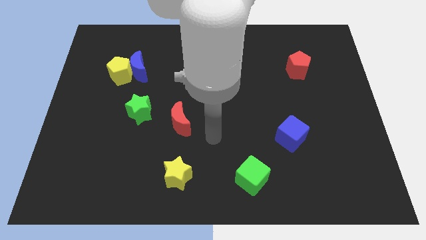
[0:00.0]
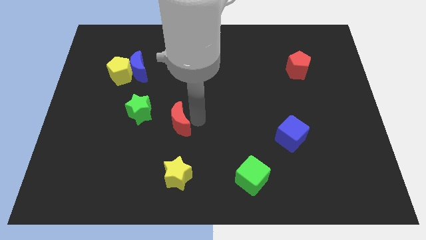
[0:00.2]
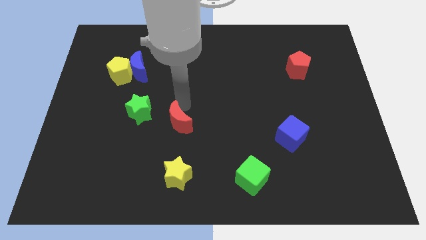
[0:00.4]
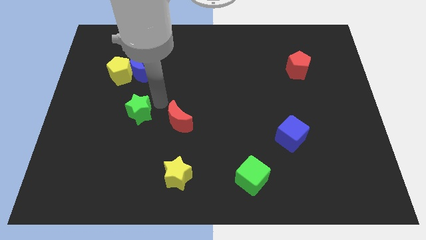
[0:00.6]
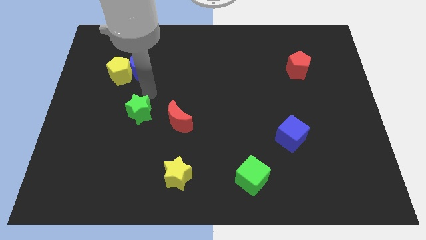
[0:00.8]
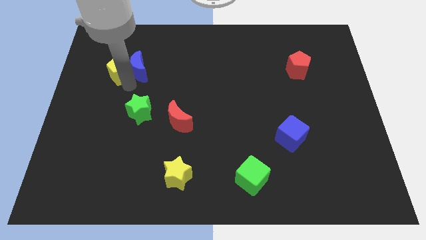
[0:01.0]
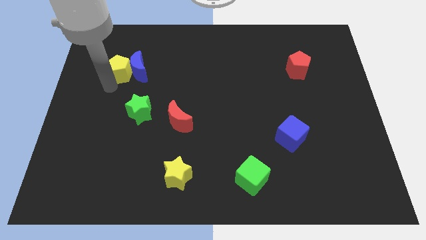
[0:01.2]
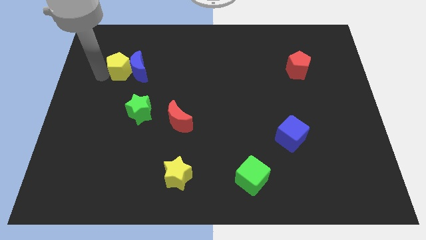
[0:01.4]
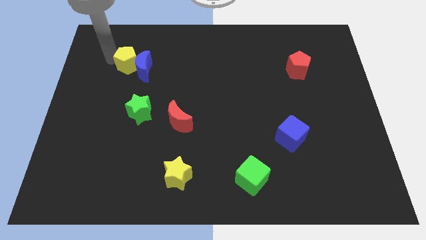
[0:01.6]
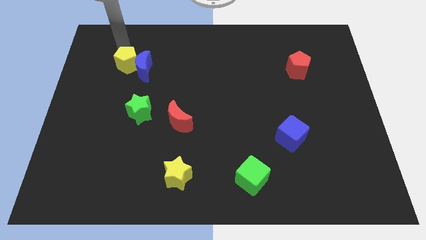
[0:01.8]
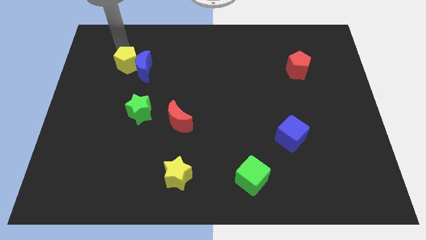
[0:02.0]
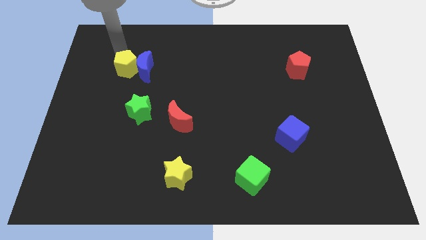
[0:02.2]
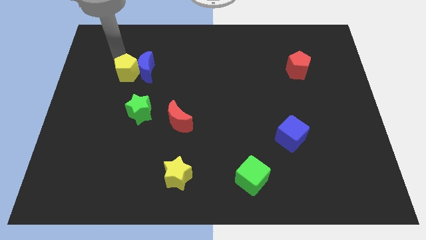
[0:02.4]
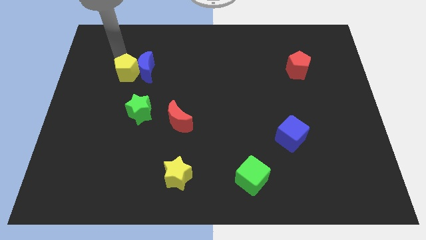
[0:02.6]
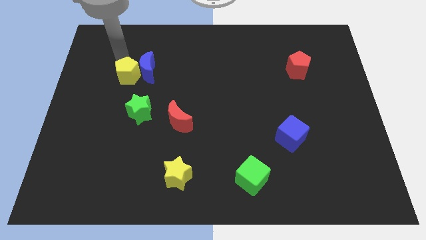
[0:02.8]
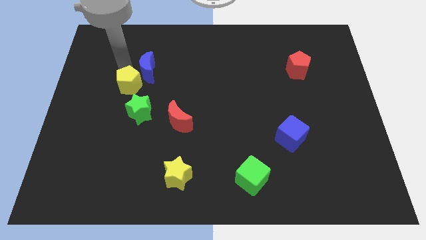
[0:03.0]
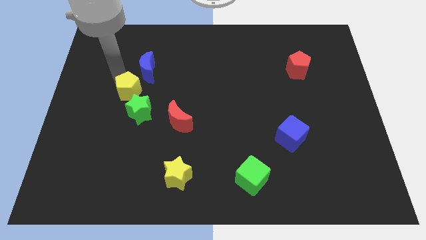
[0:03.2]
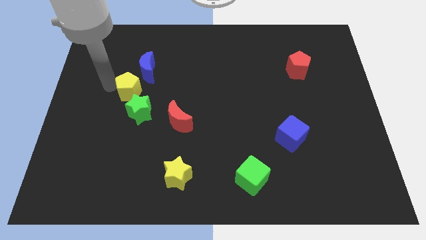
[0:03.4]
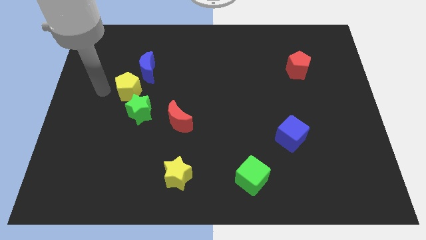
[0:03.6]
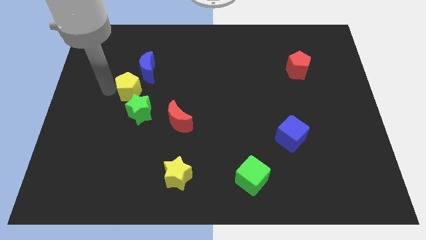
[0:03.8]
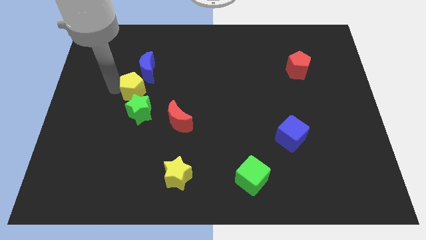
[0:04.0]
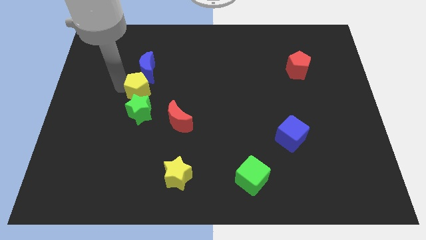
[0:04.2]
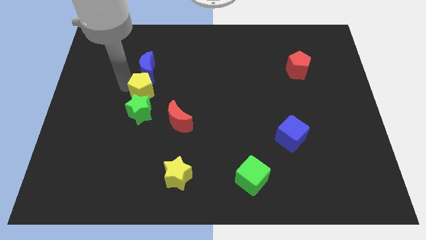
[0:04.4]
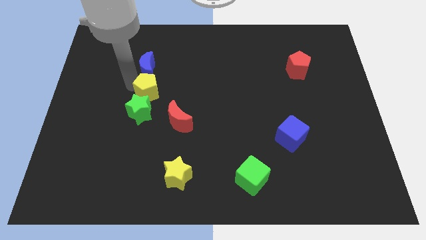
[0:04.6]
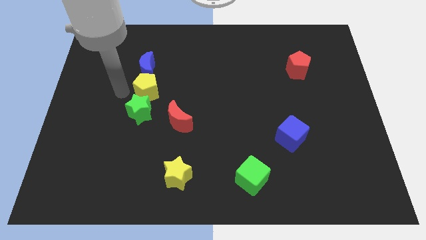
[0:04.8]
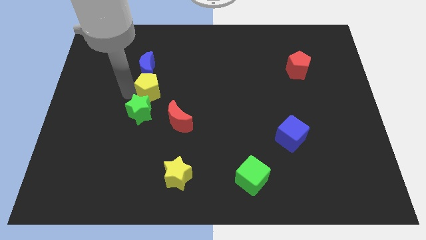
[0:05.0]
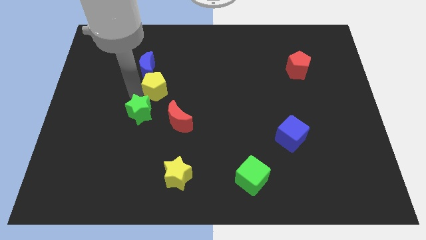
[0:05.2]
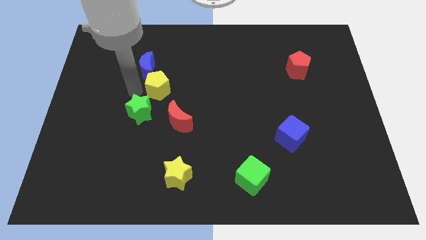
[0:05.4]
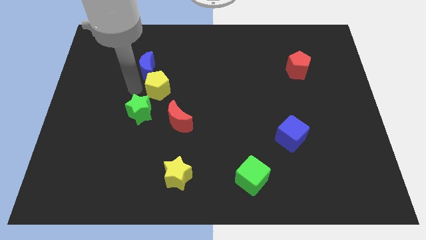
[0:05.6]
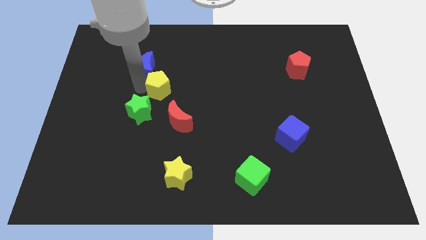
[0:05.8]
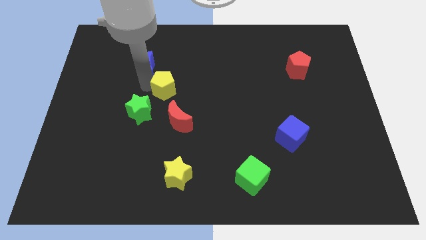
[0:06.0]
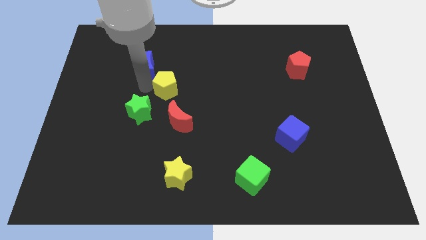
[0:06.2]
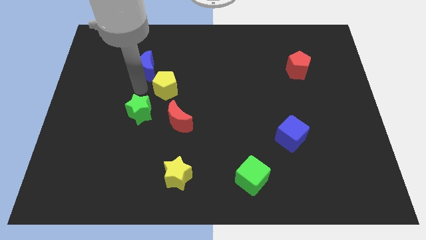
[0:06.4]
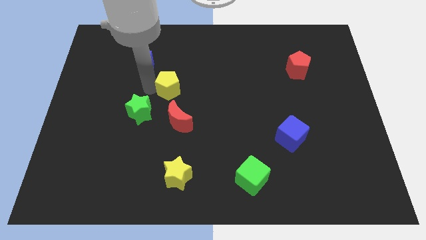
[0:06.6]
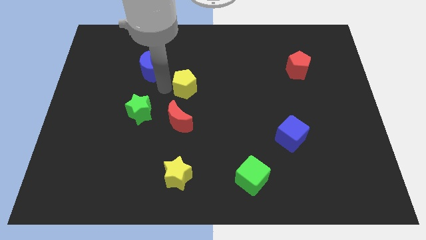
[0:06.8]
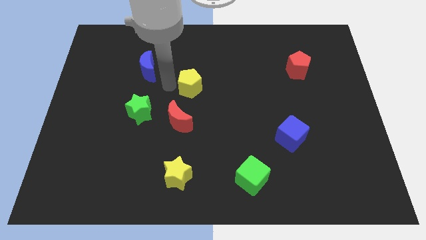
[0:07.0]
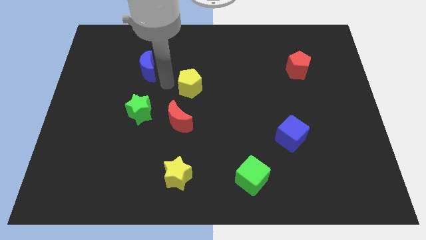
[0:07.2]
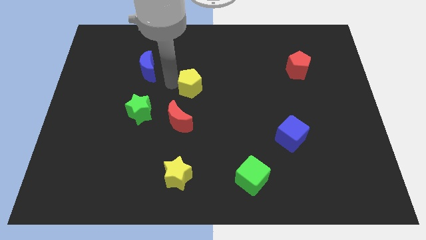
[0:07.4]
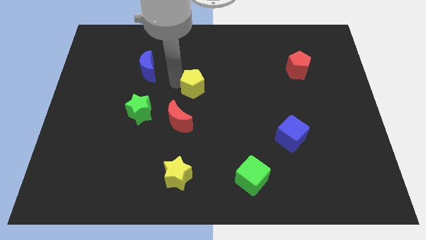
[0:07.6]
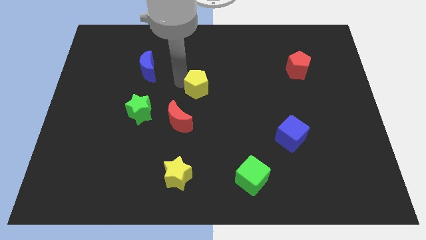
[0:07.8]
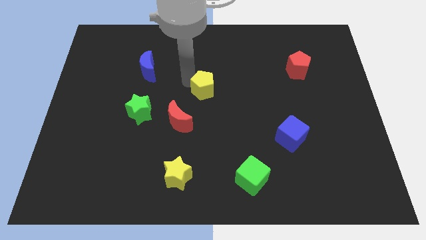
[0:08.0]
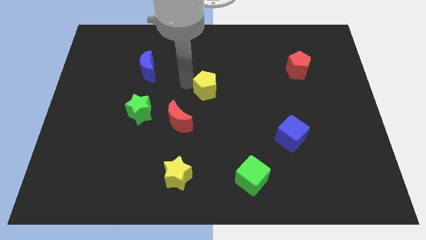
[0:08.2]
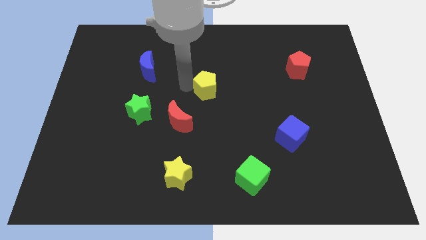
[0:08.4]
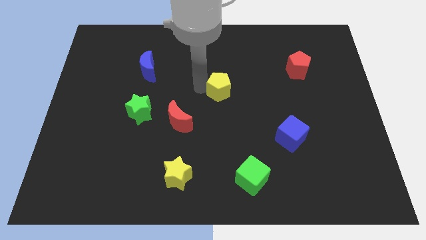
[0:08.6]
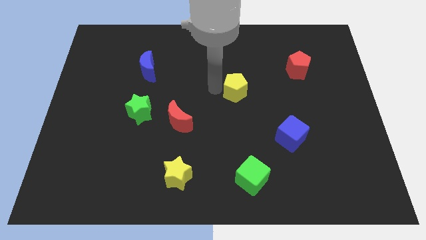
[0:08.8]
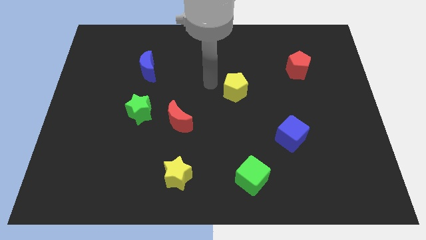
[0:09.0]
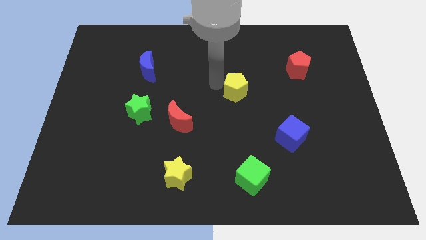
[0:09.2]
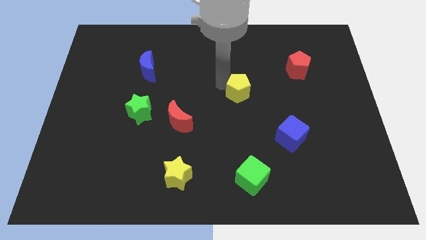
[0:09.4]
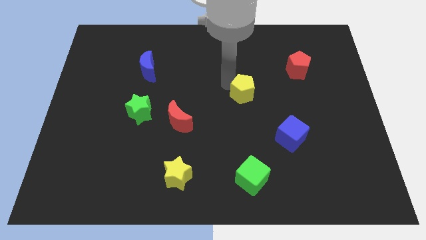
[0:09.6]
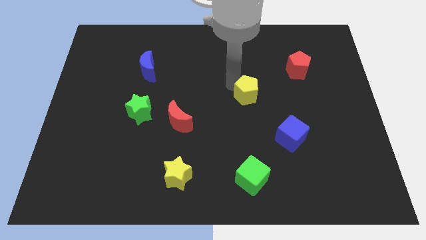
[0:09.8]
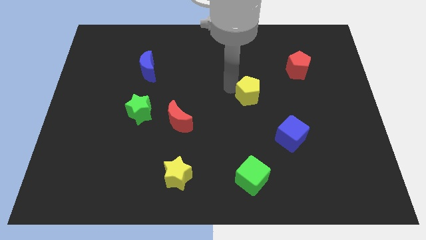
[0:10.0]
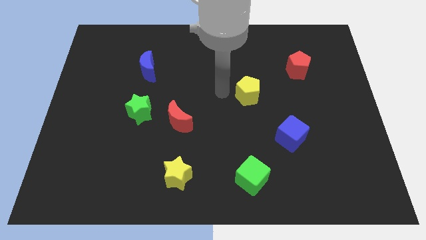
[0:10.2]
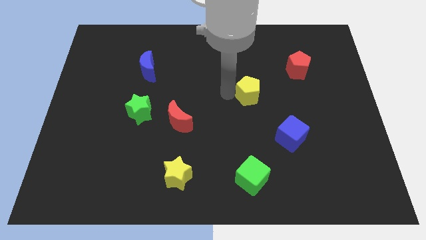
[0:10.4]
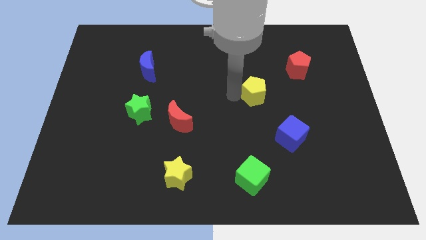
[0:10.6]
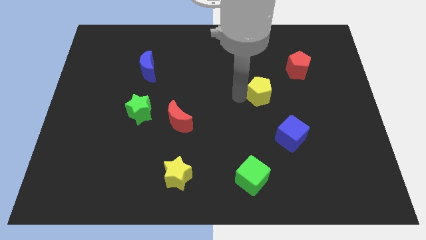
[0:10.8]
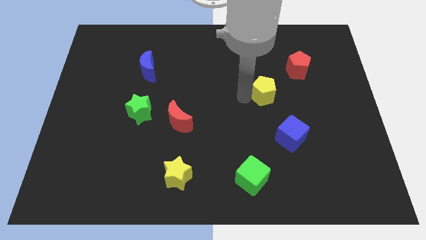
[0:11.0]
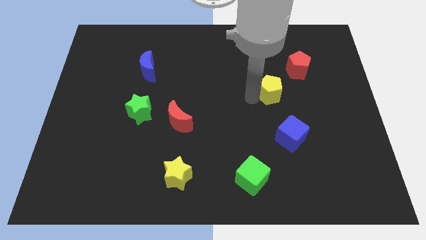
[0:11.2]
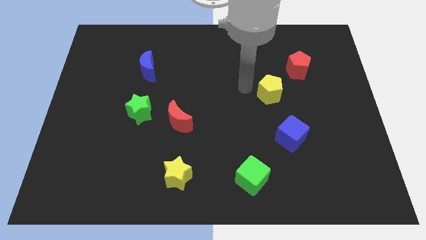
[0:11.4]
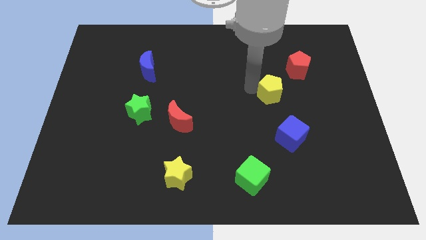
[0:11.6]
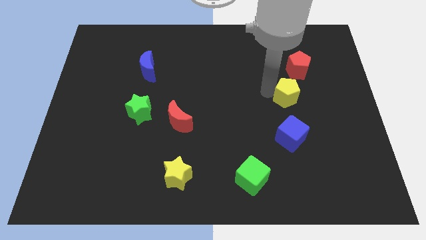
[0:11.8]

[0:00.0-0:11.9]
slide the yellow pentagon to the bottom of the red pentagon

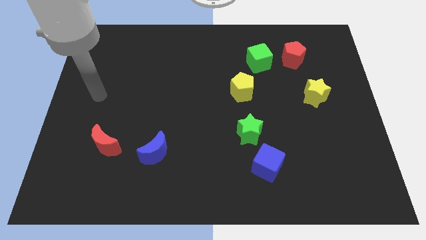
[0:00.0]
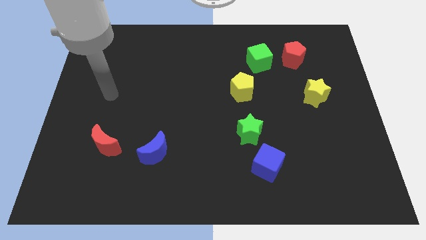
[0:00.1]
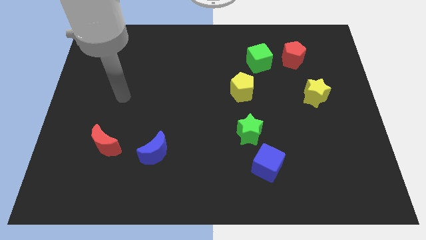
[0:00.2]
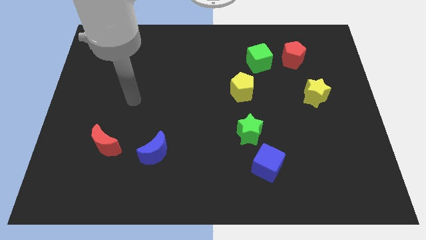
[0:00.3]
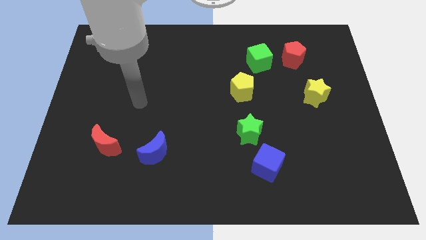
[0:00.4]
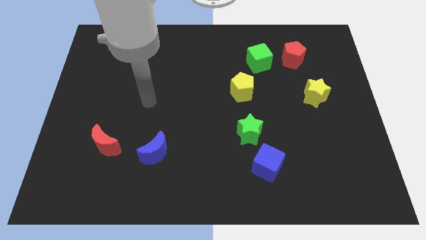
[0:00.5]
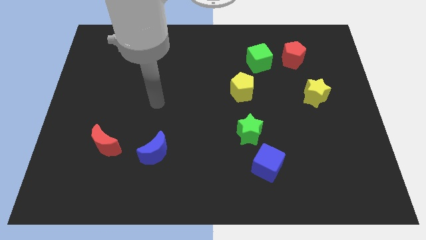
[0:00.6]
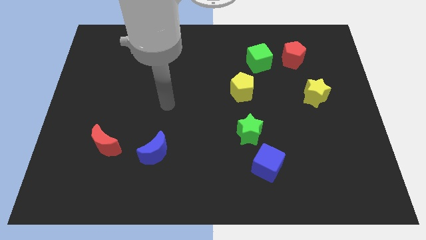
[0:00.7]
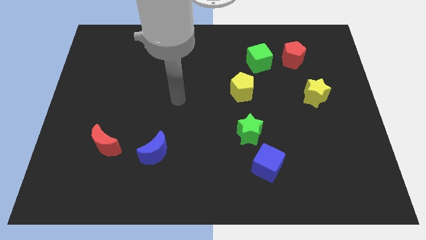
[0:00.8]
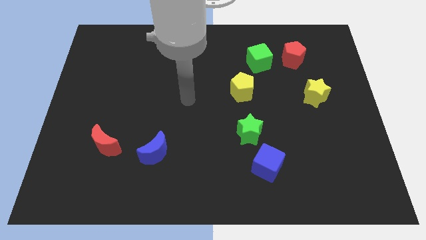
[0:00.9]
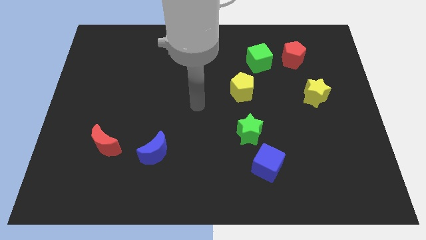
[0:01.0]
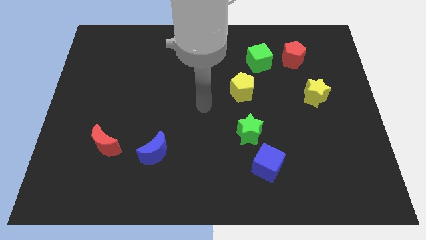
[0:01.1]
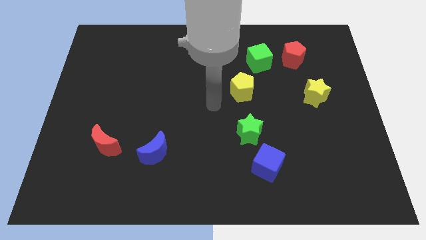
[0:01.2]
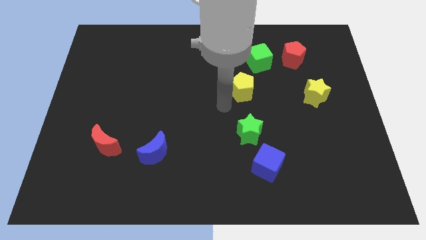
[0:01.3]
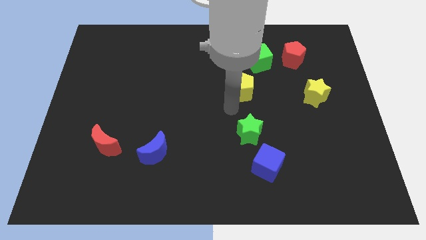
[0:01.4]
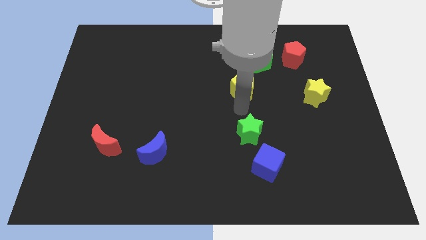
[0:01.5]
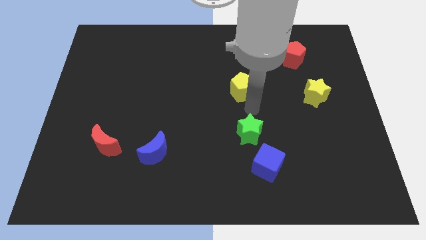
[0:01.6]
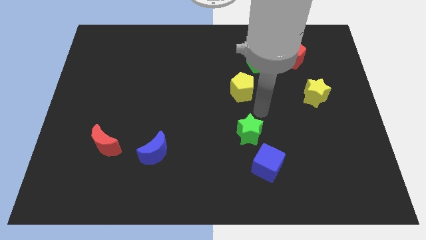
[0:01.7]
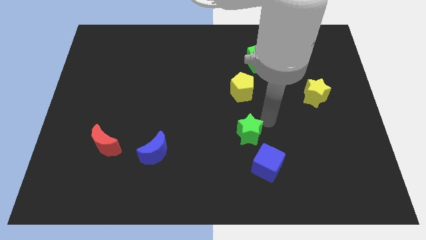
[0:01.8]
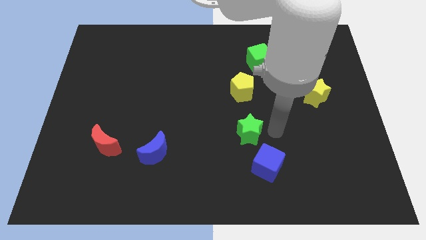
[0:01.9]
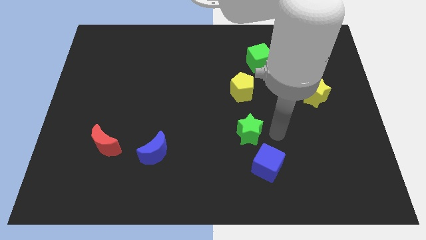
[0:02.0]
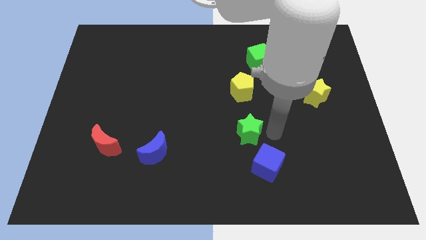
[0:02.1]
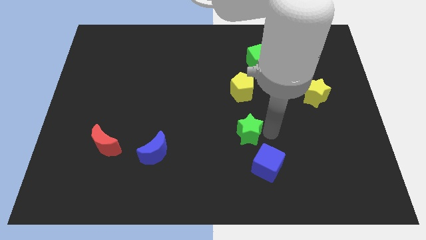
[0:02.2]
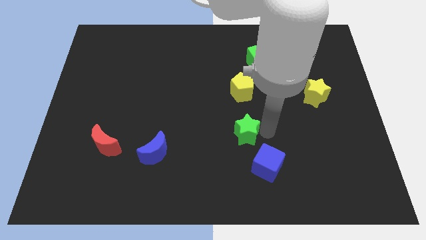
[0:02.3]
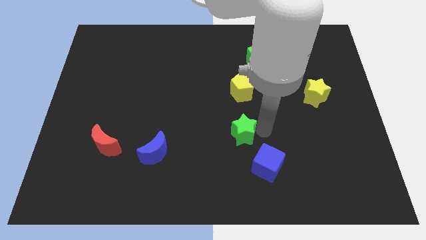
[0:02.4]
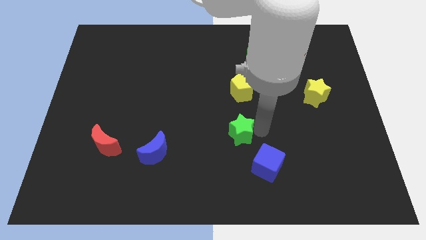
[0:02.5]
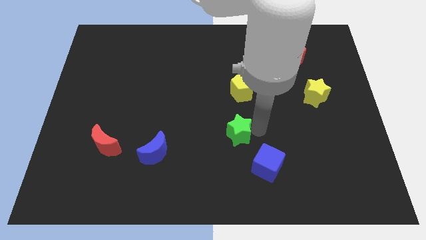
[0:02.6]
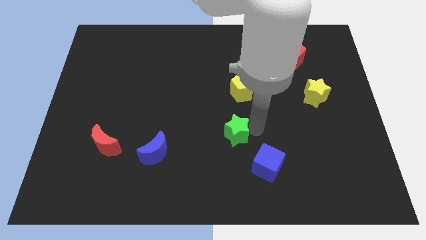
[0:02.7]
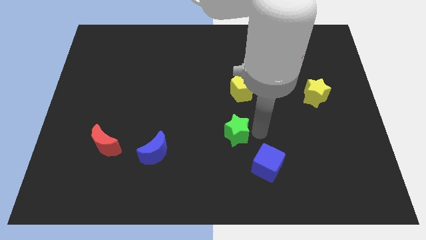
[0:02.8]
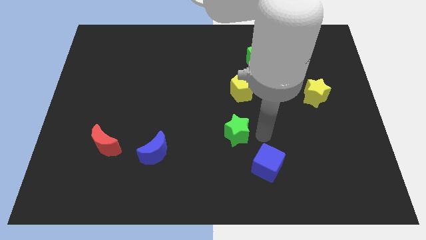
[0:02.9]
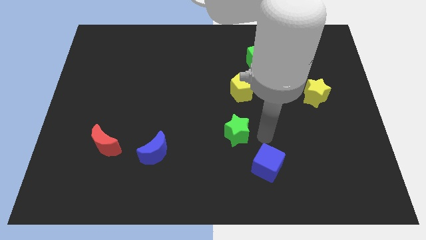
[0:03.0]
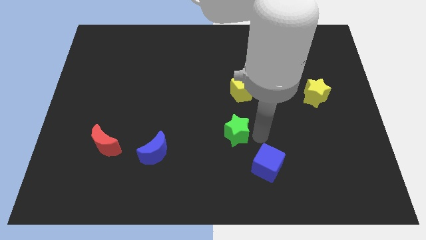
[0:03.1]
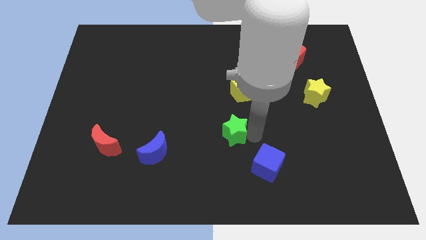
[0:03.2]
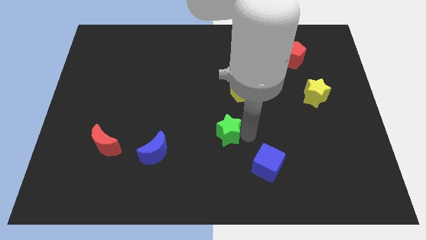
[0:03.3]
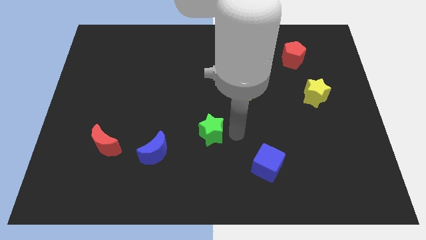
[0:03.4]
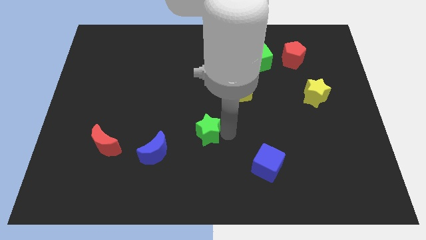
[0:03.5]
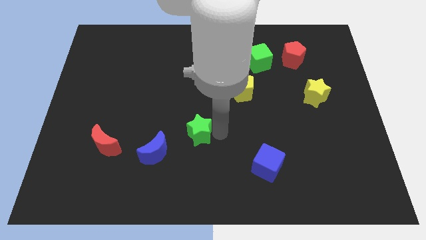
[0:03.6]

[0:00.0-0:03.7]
move the green star to the top right of the blue moon
